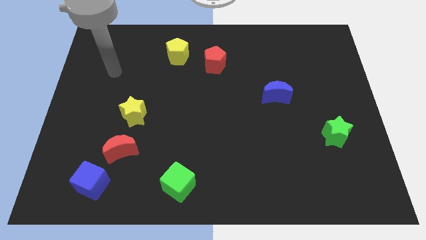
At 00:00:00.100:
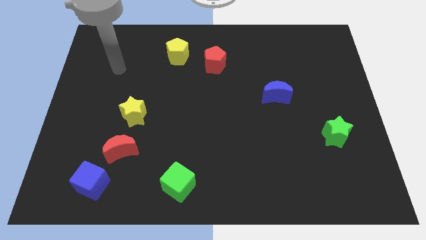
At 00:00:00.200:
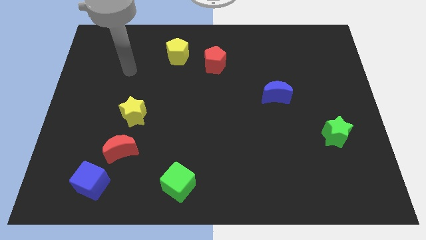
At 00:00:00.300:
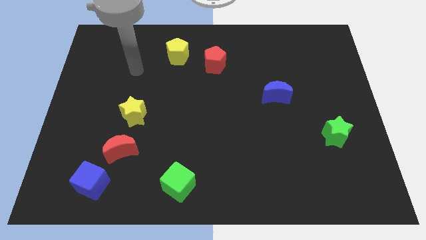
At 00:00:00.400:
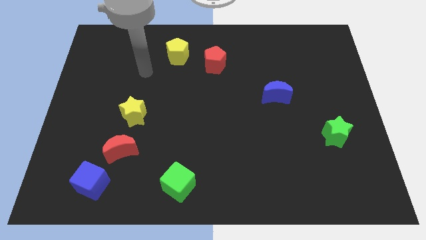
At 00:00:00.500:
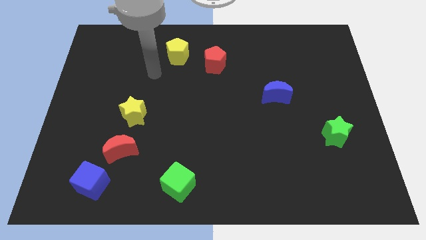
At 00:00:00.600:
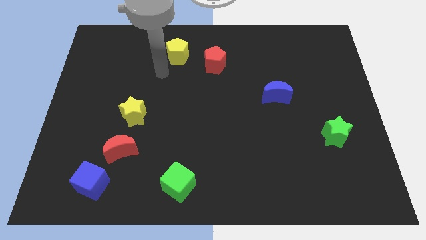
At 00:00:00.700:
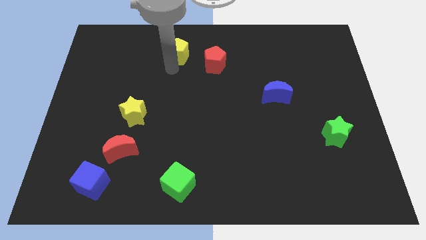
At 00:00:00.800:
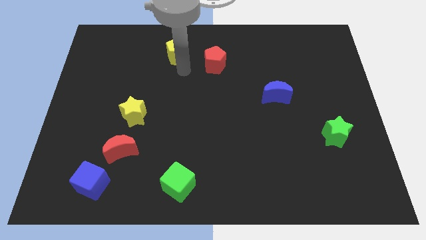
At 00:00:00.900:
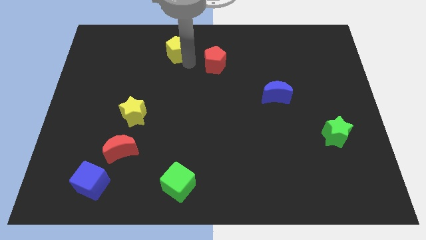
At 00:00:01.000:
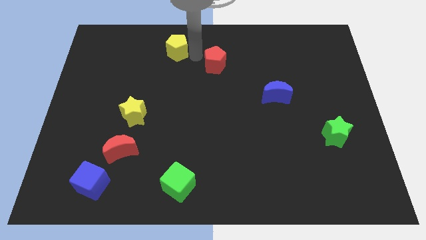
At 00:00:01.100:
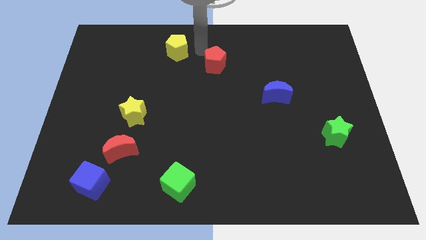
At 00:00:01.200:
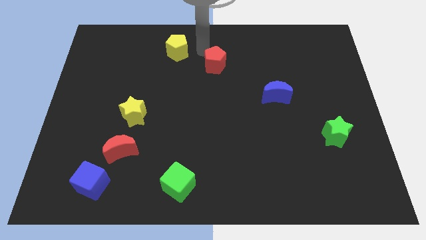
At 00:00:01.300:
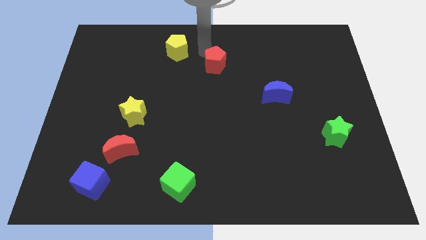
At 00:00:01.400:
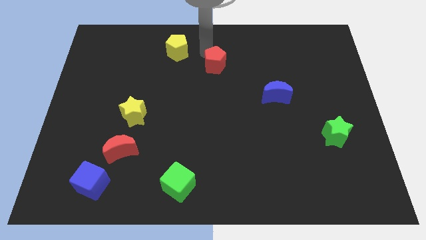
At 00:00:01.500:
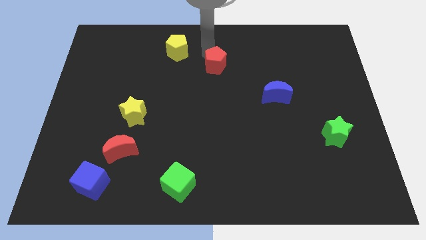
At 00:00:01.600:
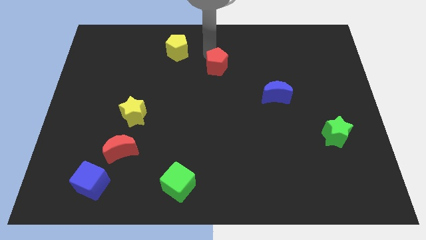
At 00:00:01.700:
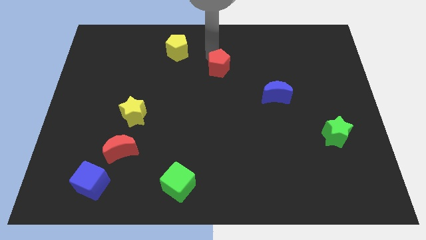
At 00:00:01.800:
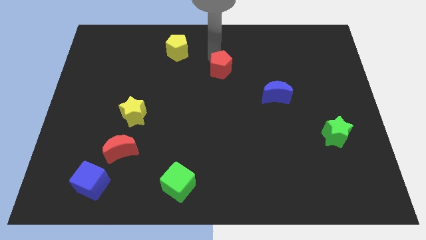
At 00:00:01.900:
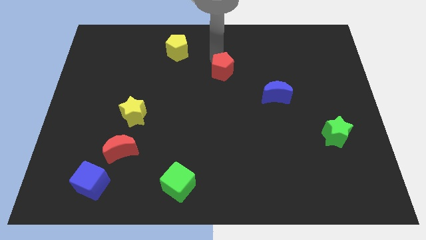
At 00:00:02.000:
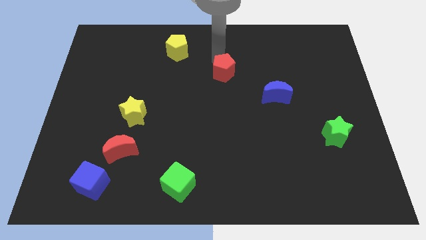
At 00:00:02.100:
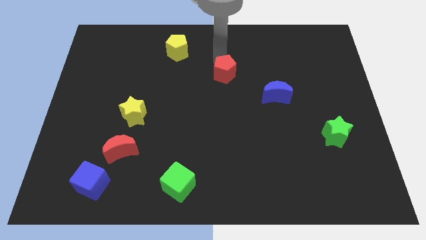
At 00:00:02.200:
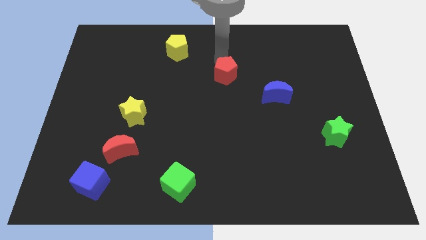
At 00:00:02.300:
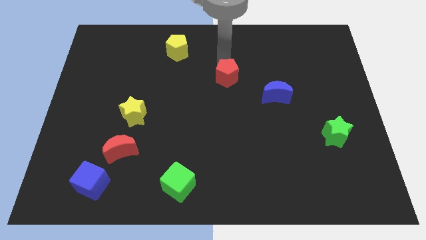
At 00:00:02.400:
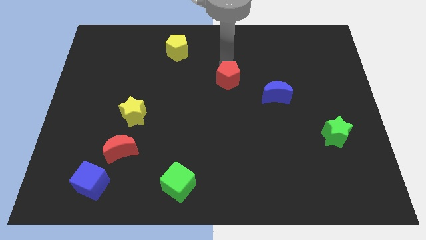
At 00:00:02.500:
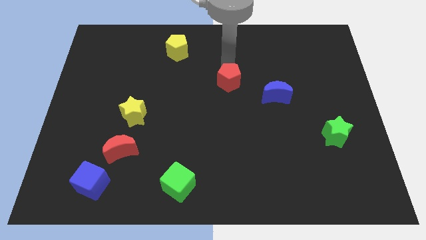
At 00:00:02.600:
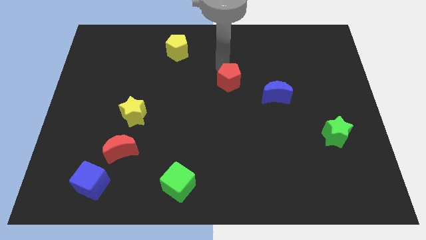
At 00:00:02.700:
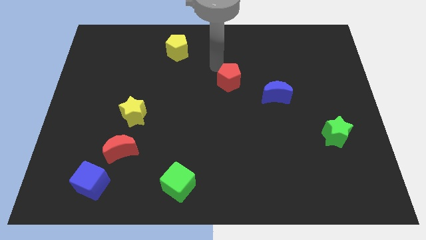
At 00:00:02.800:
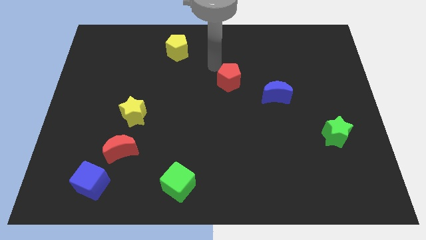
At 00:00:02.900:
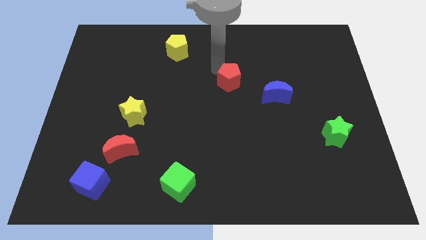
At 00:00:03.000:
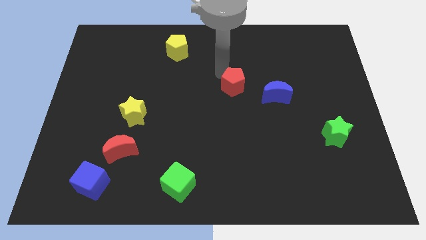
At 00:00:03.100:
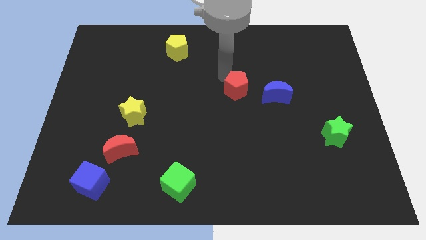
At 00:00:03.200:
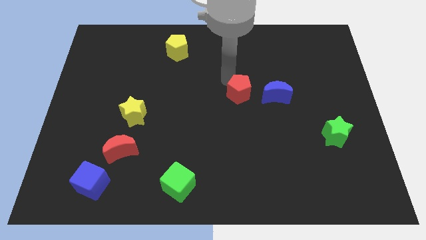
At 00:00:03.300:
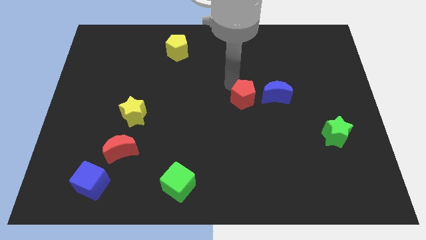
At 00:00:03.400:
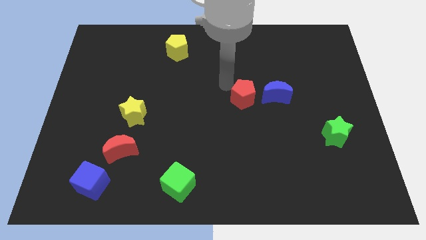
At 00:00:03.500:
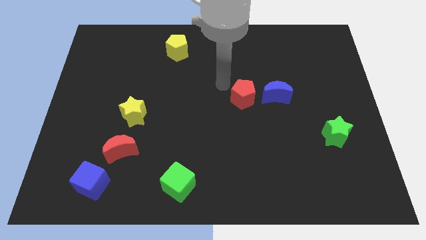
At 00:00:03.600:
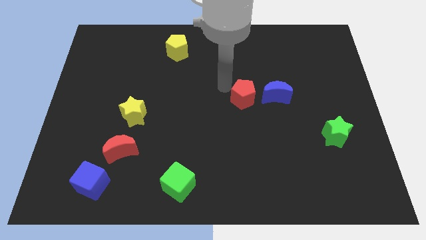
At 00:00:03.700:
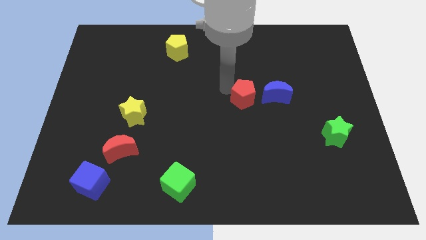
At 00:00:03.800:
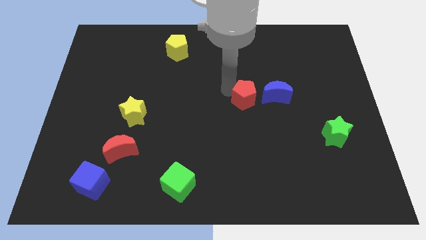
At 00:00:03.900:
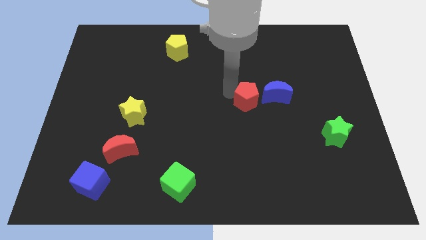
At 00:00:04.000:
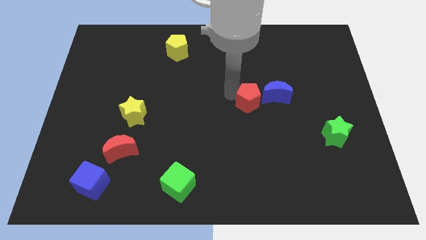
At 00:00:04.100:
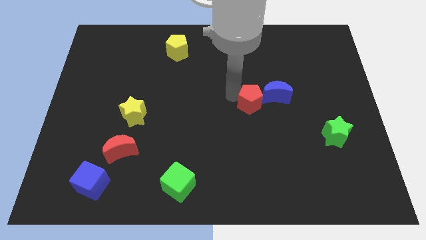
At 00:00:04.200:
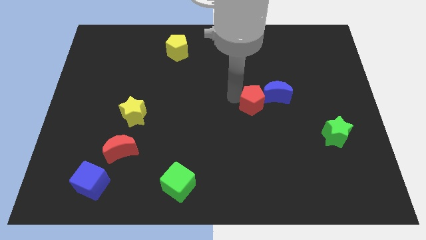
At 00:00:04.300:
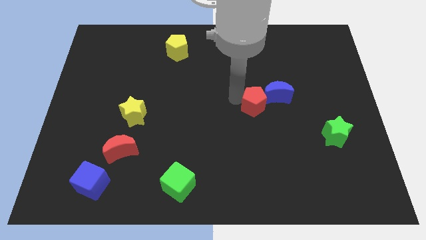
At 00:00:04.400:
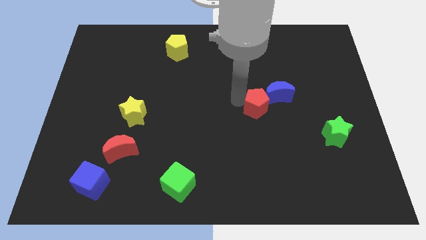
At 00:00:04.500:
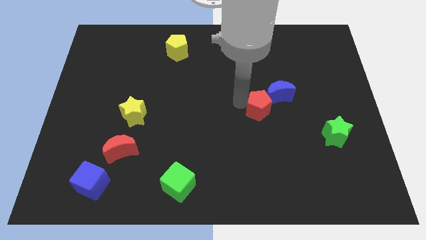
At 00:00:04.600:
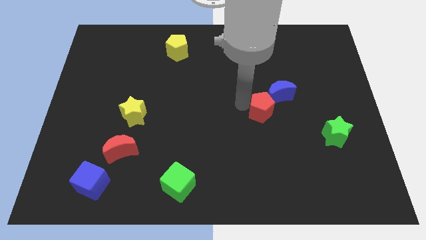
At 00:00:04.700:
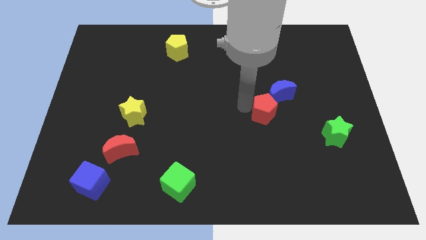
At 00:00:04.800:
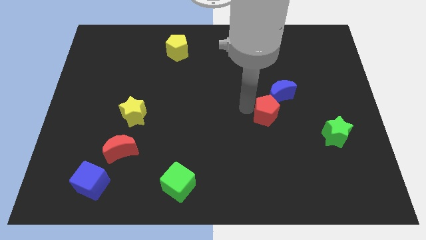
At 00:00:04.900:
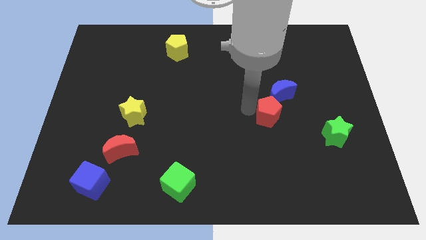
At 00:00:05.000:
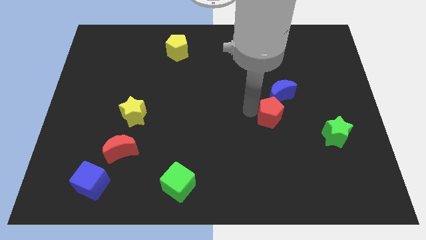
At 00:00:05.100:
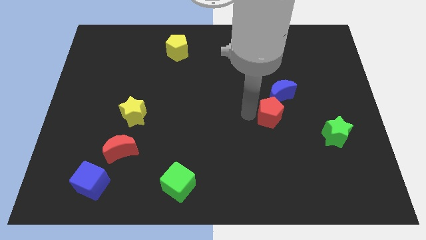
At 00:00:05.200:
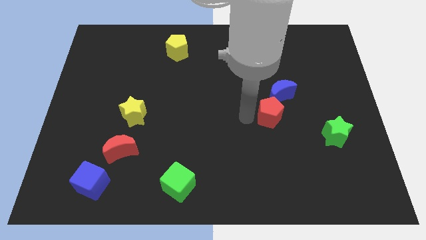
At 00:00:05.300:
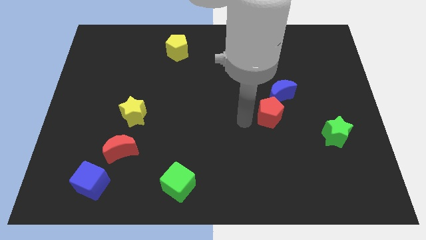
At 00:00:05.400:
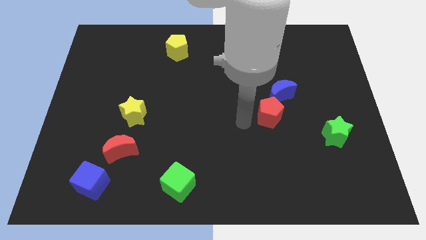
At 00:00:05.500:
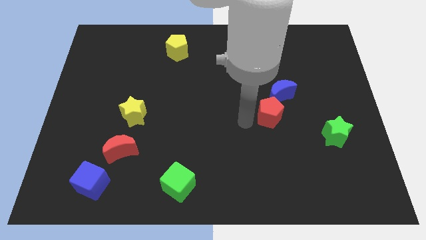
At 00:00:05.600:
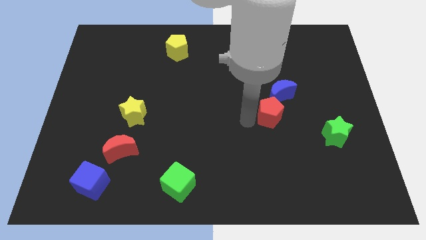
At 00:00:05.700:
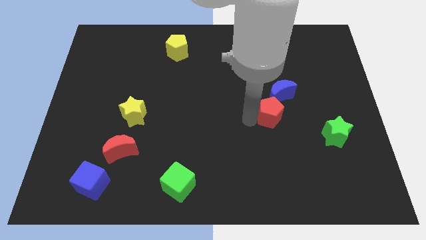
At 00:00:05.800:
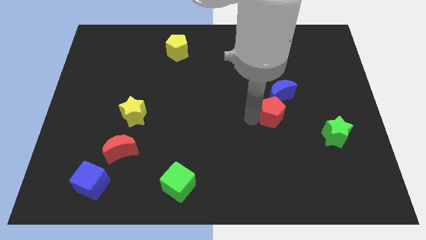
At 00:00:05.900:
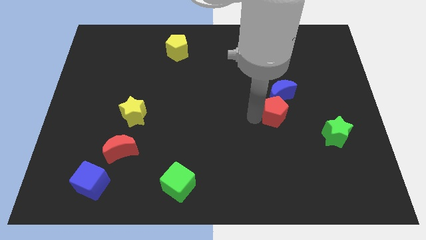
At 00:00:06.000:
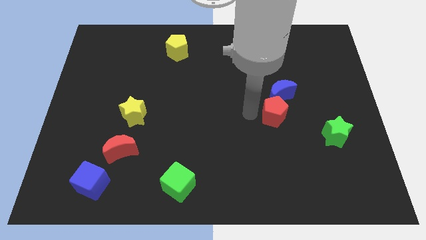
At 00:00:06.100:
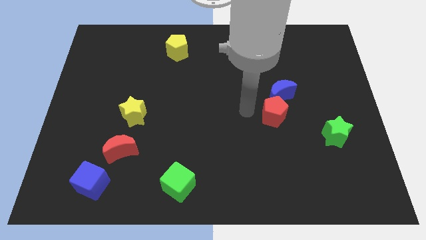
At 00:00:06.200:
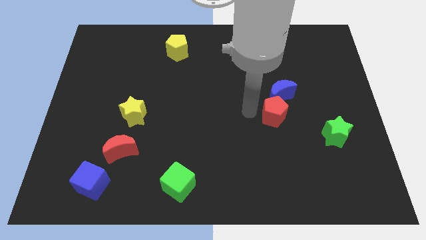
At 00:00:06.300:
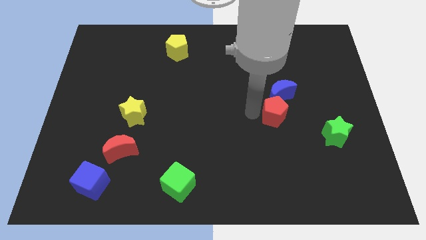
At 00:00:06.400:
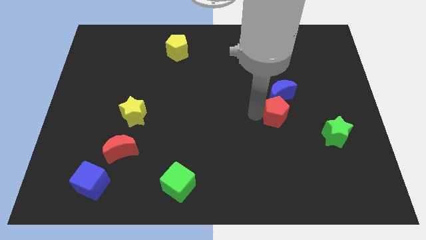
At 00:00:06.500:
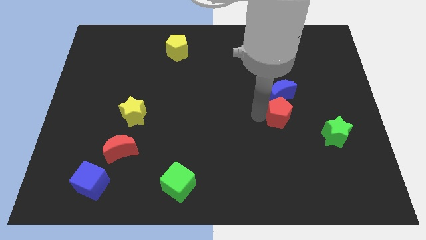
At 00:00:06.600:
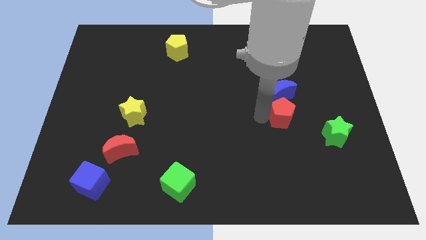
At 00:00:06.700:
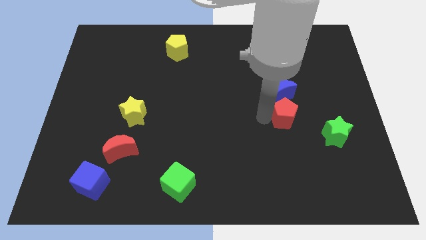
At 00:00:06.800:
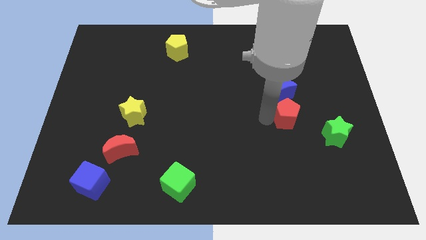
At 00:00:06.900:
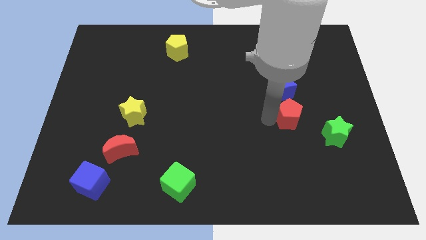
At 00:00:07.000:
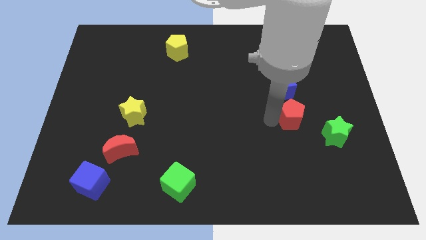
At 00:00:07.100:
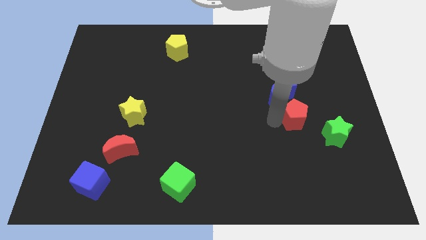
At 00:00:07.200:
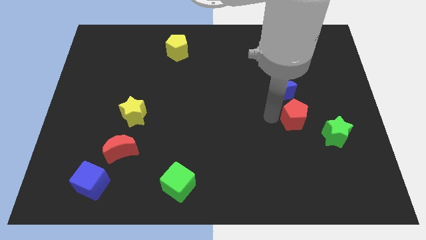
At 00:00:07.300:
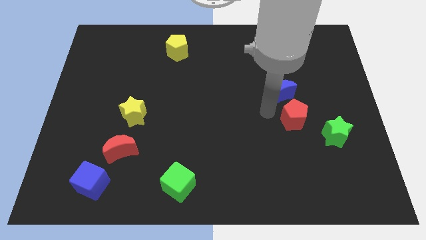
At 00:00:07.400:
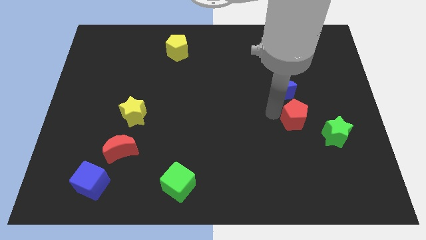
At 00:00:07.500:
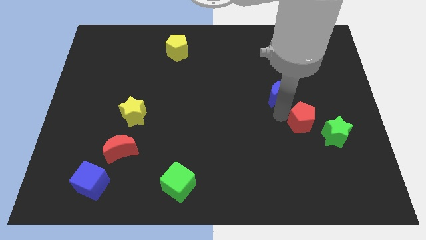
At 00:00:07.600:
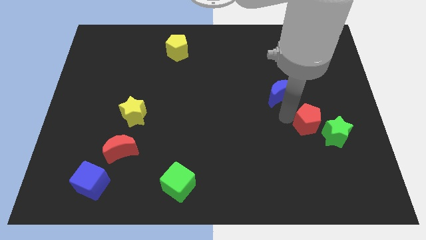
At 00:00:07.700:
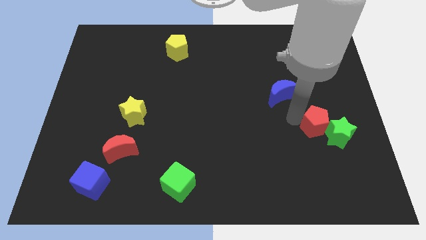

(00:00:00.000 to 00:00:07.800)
push the red pentagon next to the green star
